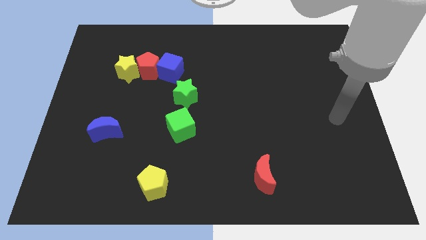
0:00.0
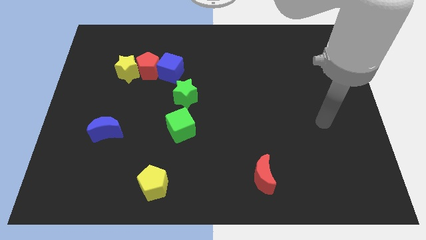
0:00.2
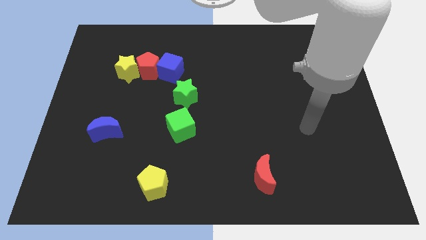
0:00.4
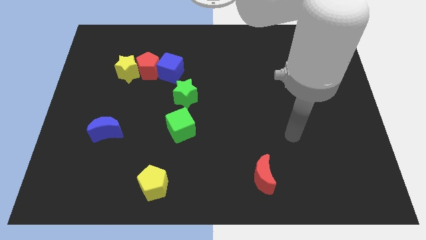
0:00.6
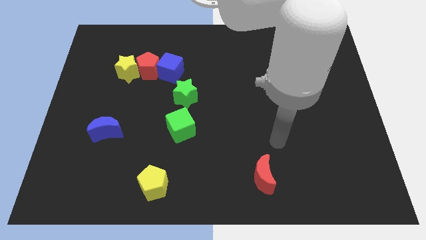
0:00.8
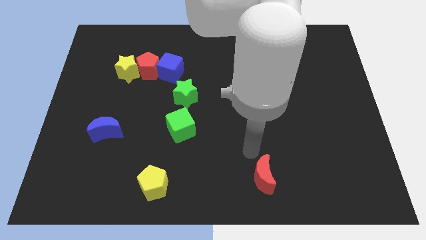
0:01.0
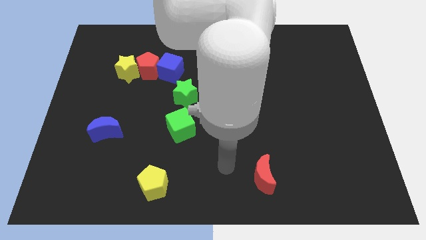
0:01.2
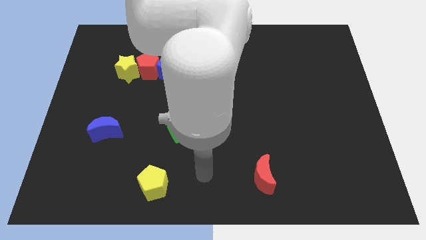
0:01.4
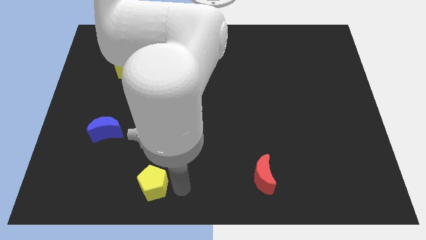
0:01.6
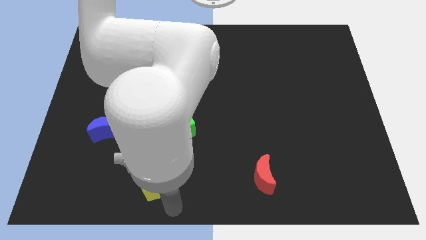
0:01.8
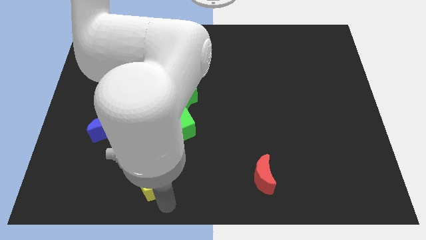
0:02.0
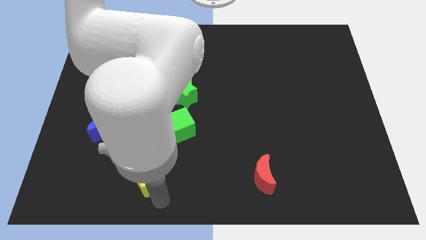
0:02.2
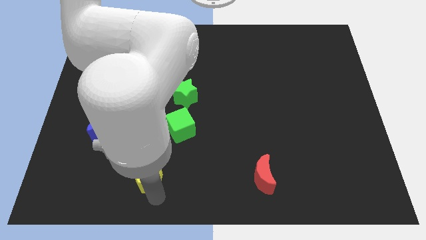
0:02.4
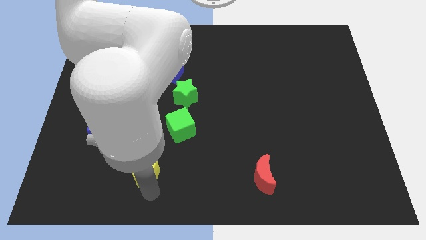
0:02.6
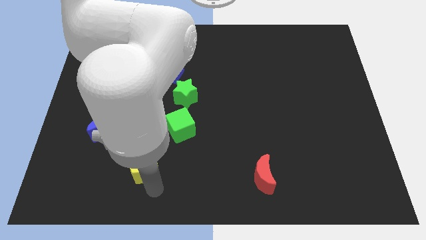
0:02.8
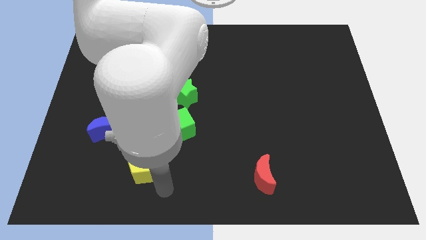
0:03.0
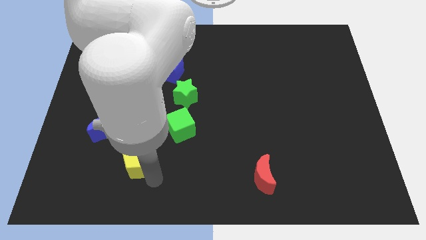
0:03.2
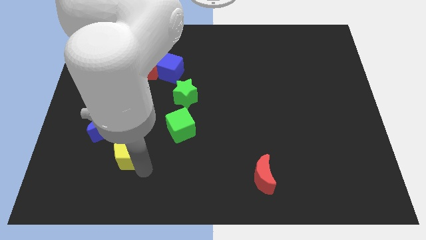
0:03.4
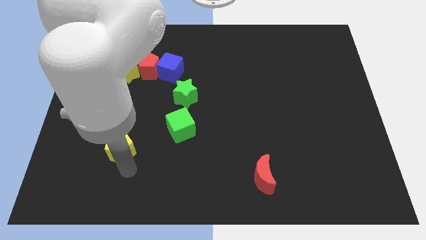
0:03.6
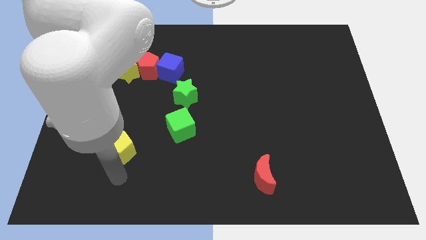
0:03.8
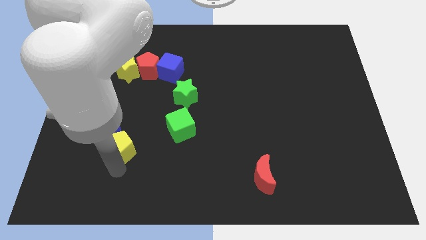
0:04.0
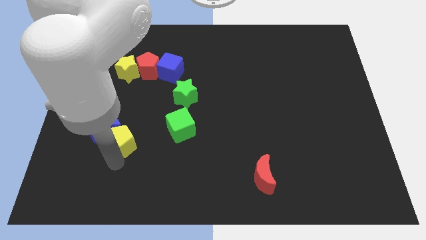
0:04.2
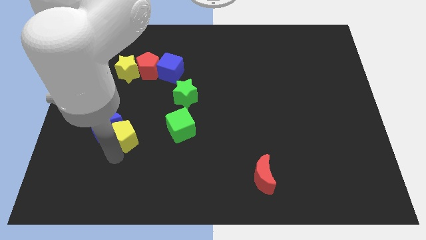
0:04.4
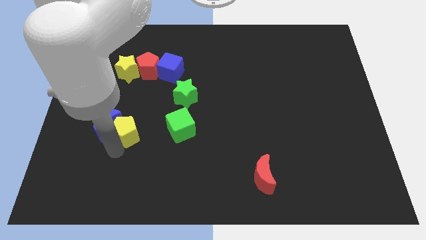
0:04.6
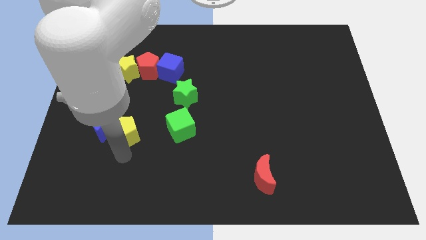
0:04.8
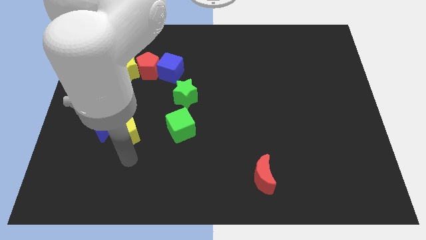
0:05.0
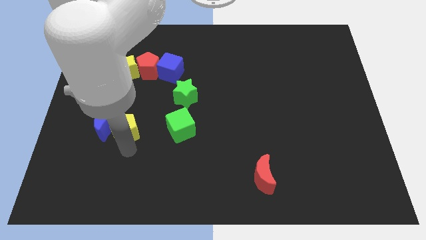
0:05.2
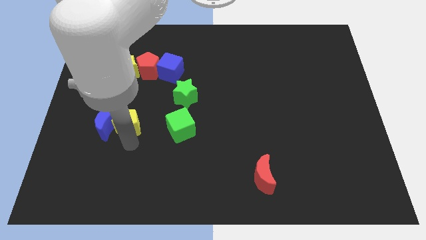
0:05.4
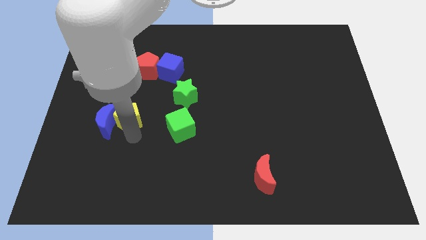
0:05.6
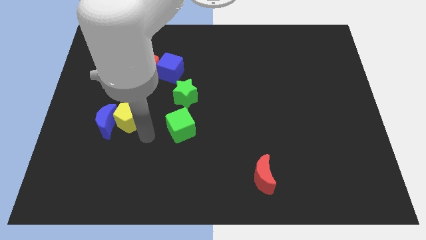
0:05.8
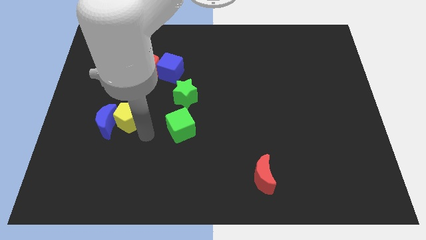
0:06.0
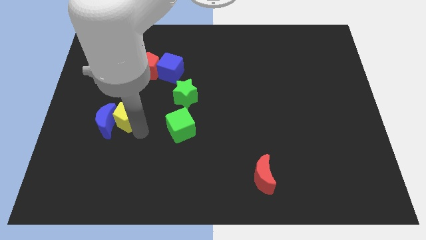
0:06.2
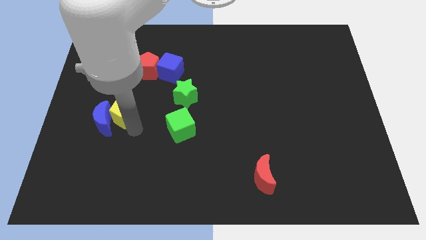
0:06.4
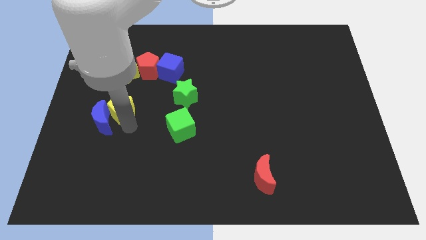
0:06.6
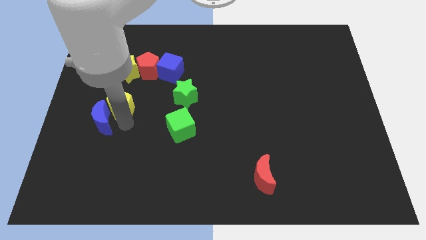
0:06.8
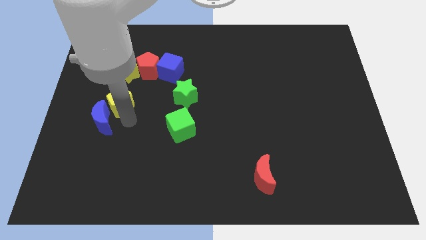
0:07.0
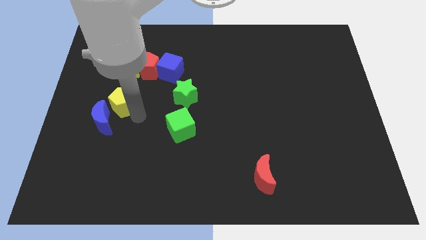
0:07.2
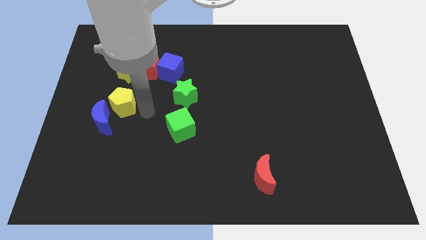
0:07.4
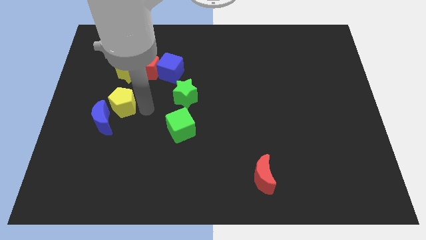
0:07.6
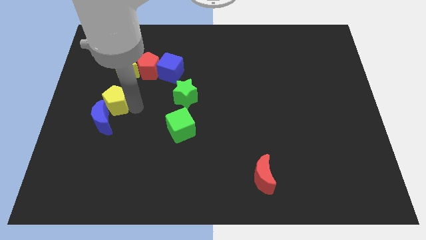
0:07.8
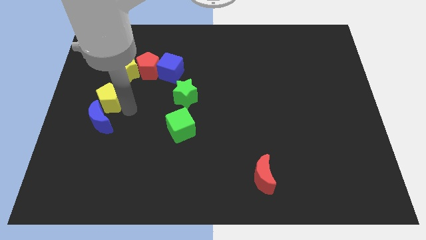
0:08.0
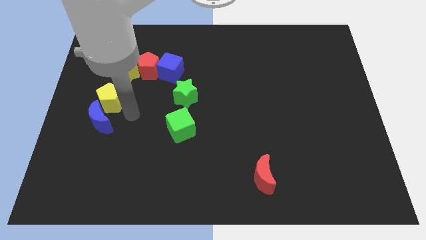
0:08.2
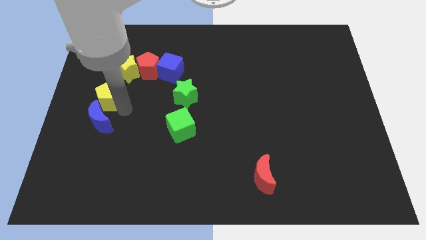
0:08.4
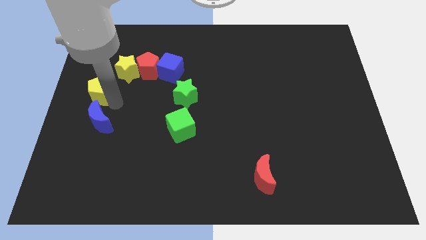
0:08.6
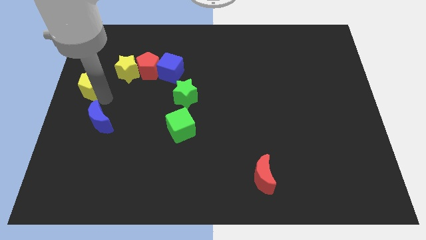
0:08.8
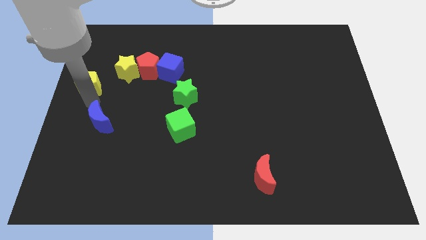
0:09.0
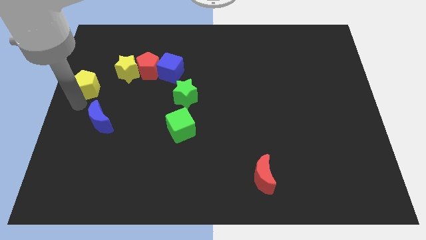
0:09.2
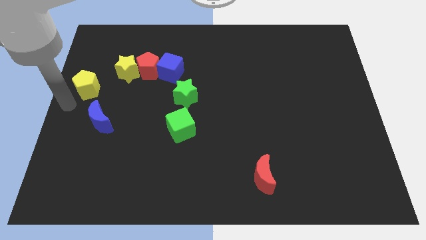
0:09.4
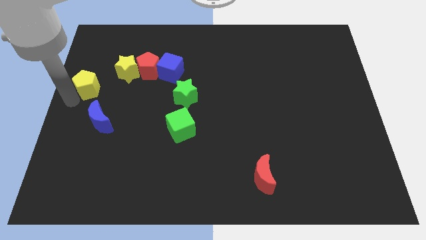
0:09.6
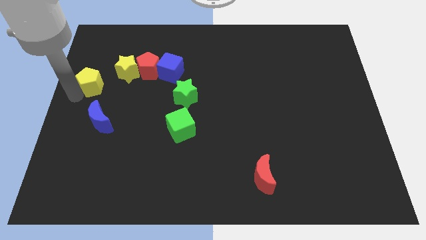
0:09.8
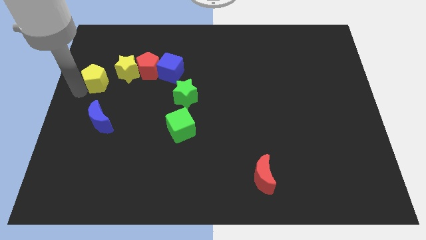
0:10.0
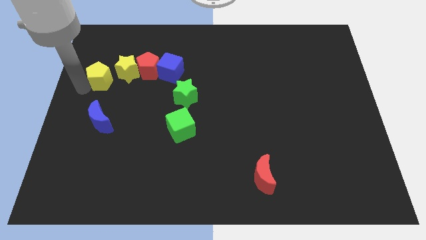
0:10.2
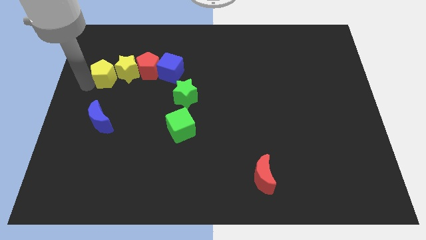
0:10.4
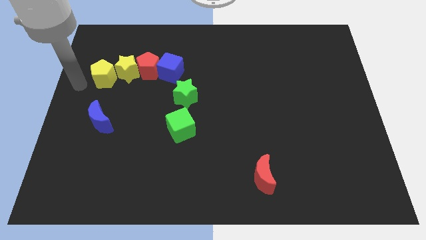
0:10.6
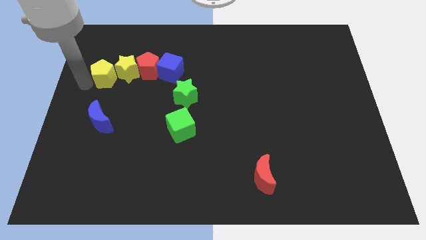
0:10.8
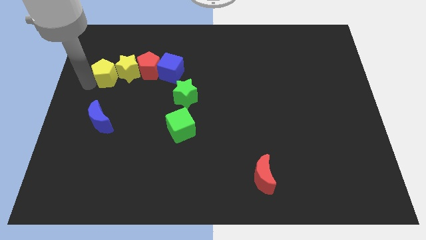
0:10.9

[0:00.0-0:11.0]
push the yellow pentagon left of the blue cube

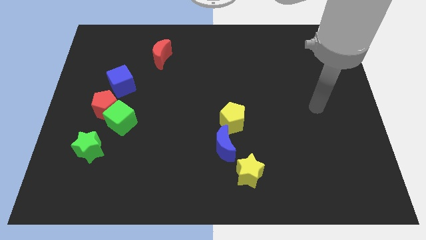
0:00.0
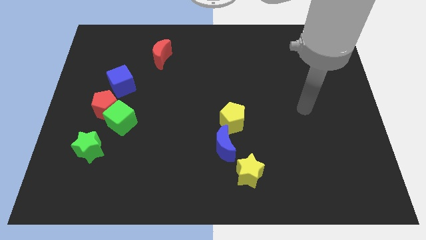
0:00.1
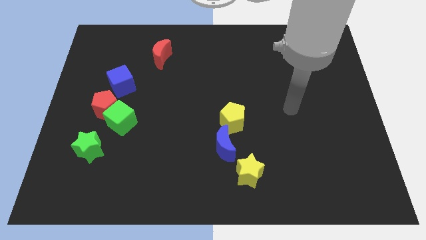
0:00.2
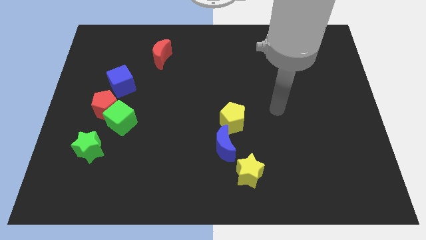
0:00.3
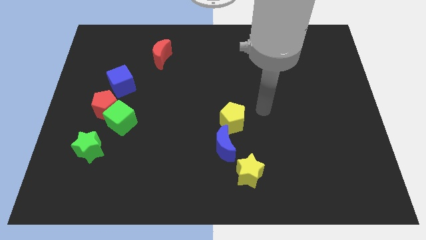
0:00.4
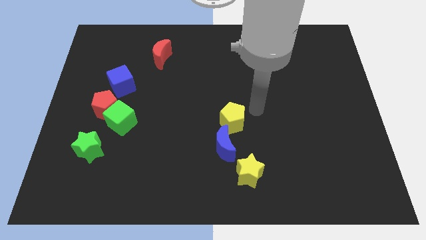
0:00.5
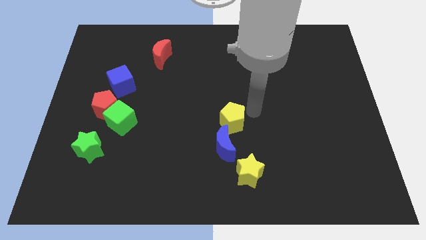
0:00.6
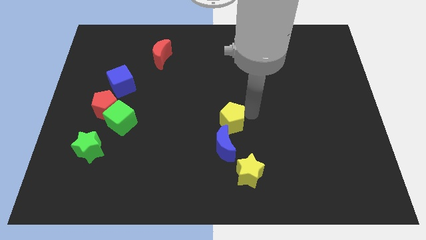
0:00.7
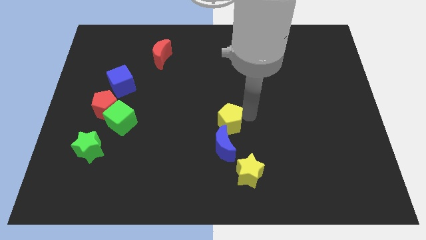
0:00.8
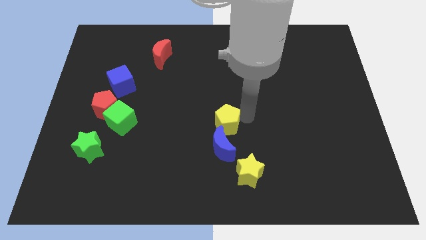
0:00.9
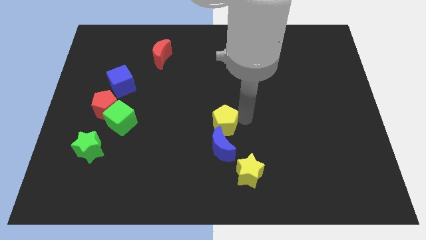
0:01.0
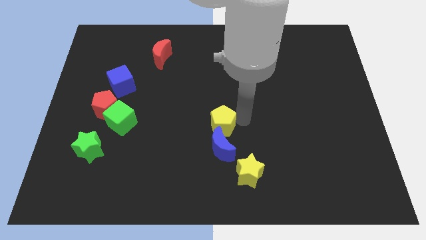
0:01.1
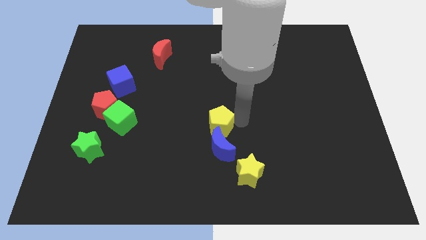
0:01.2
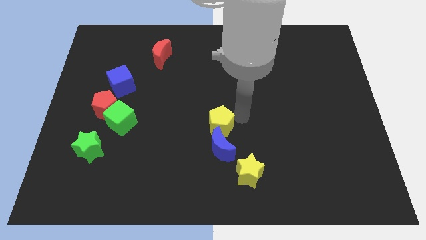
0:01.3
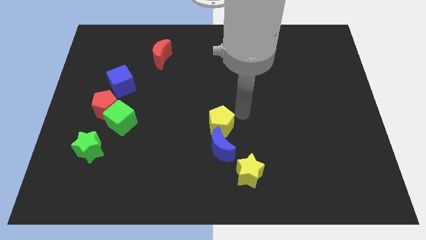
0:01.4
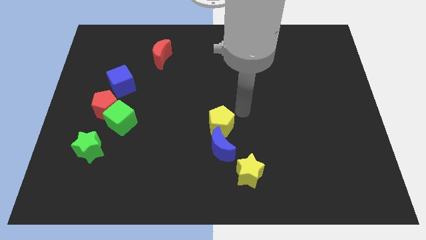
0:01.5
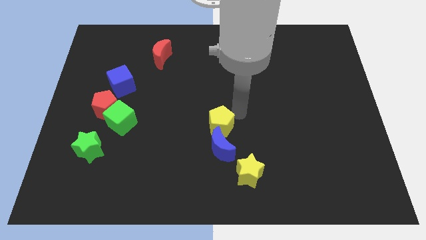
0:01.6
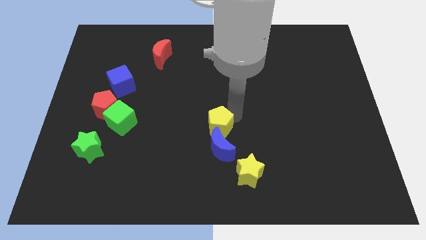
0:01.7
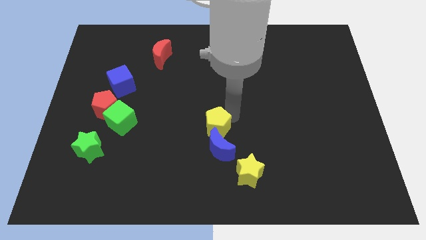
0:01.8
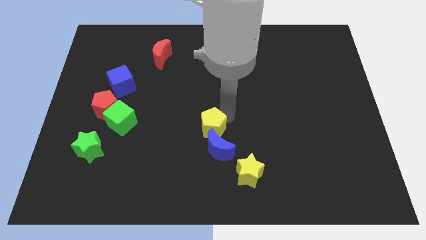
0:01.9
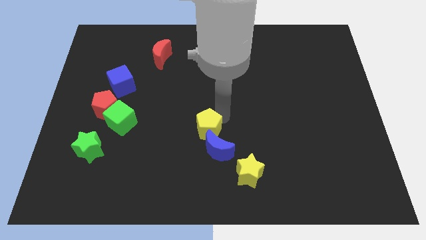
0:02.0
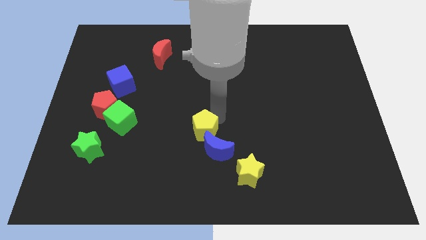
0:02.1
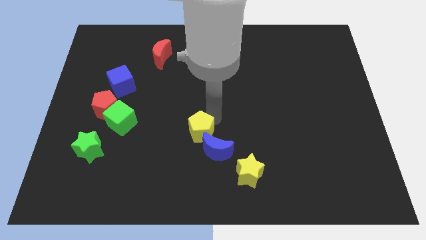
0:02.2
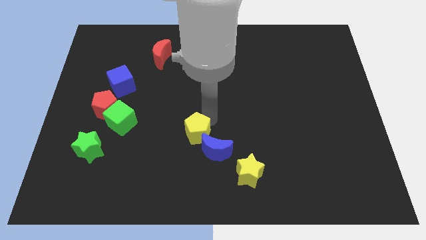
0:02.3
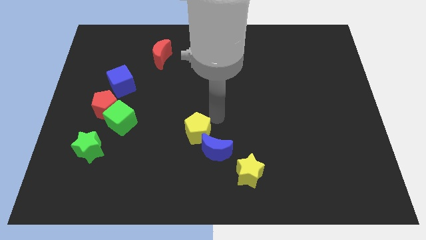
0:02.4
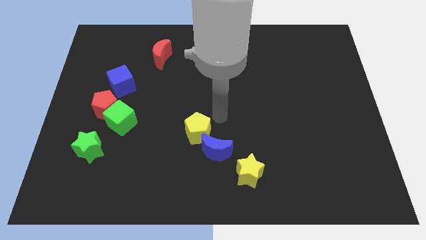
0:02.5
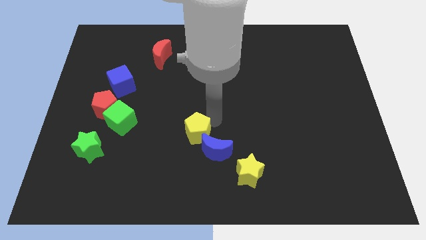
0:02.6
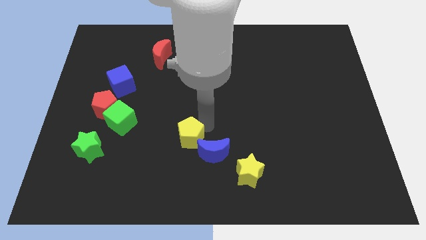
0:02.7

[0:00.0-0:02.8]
push the yellow pentagon just left of the blue moon
